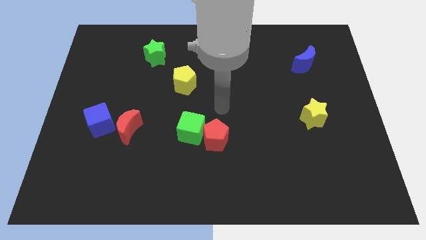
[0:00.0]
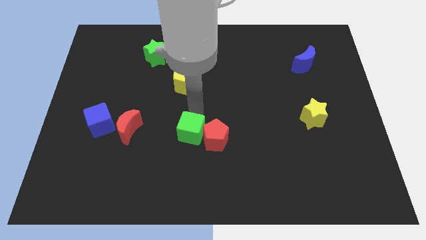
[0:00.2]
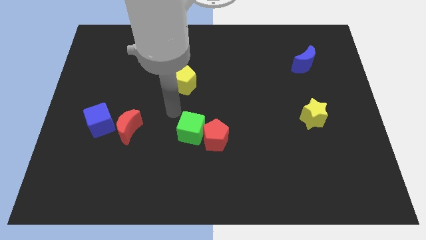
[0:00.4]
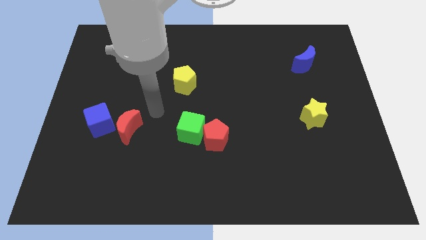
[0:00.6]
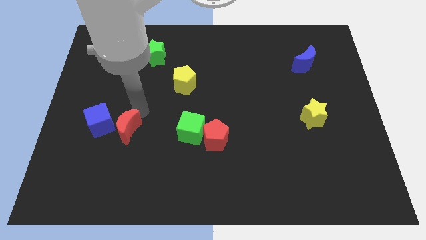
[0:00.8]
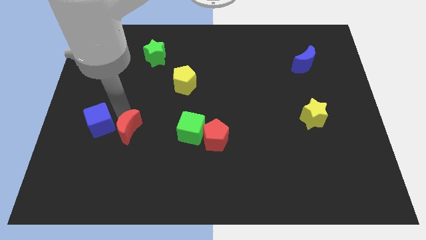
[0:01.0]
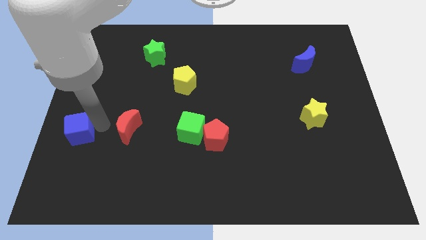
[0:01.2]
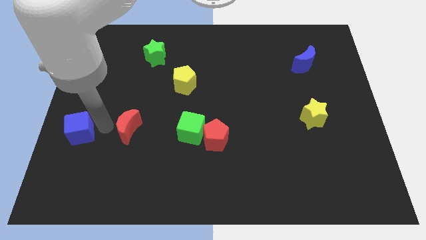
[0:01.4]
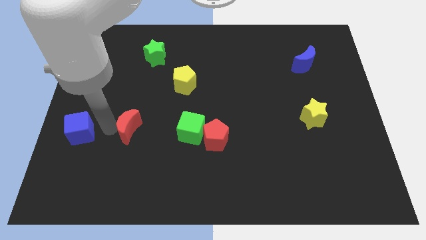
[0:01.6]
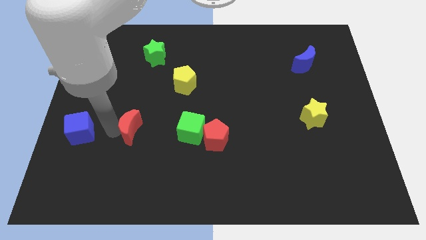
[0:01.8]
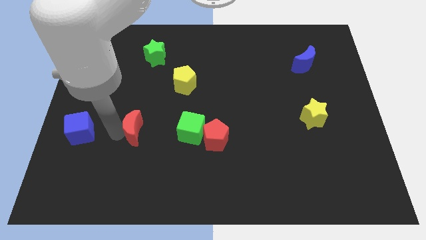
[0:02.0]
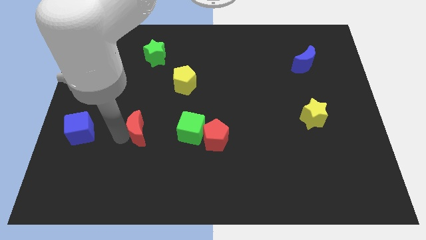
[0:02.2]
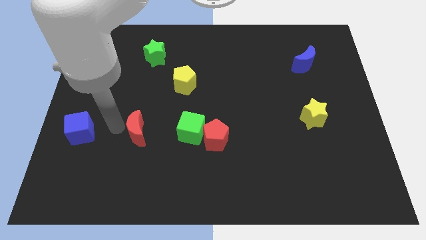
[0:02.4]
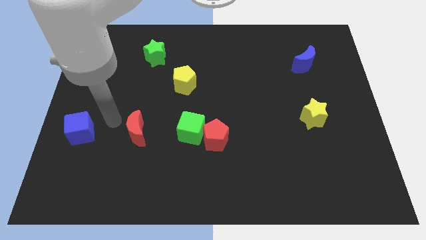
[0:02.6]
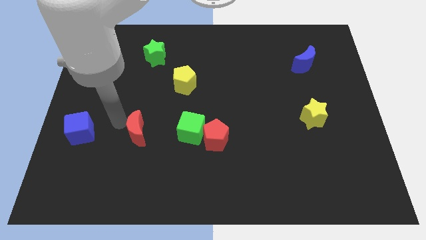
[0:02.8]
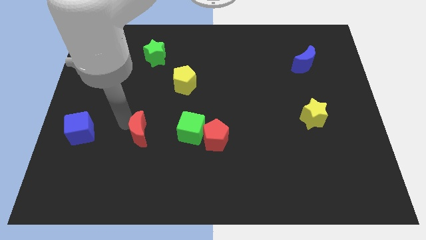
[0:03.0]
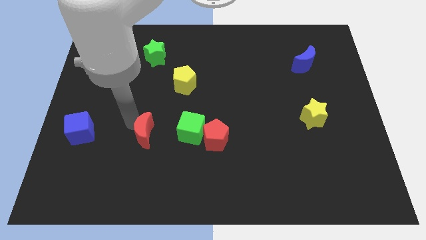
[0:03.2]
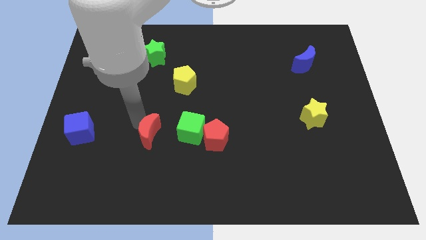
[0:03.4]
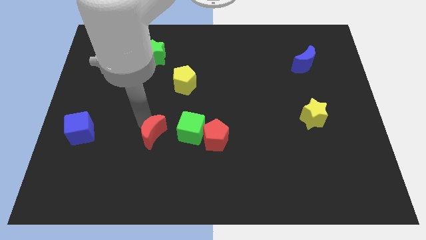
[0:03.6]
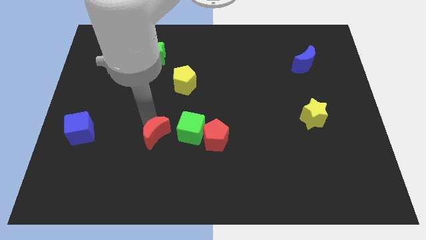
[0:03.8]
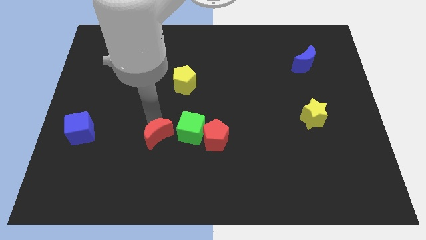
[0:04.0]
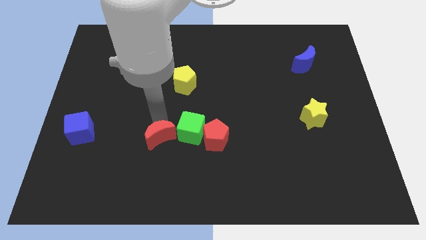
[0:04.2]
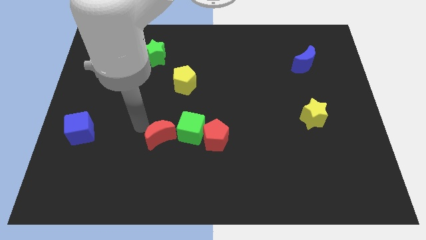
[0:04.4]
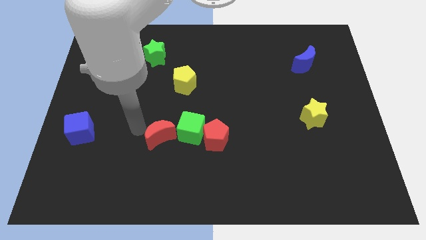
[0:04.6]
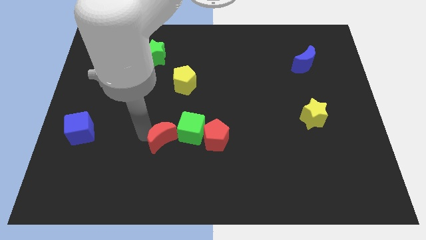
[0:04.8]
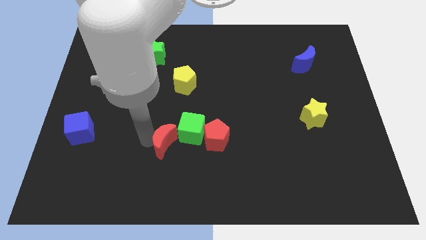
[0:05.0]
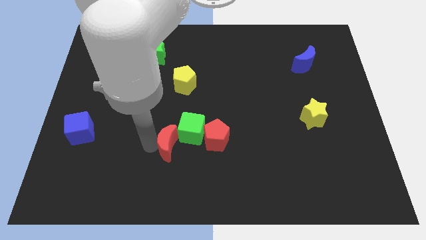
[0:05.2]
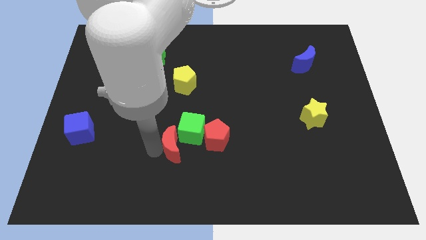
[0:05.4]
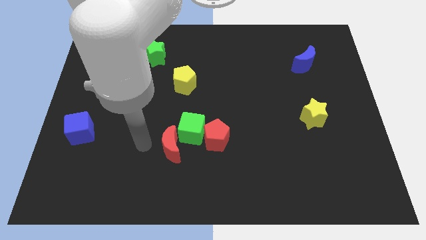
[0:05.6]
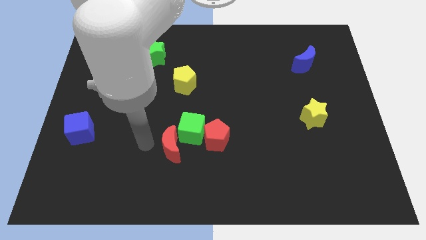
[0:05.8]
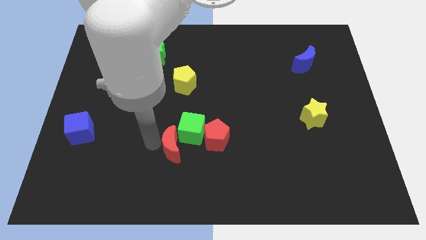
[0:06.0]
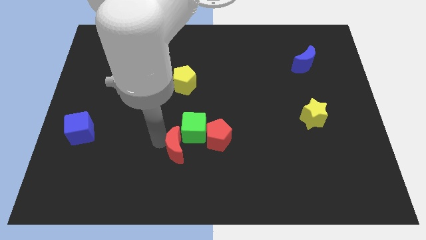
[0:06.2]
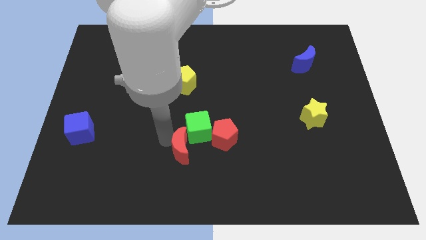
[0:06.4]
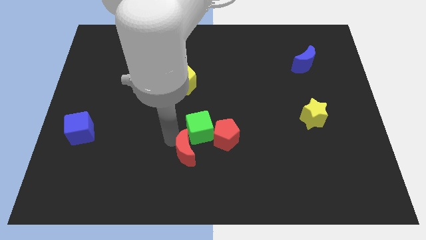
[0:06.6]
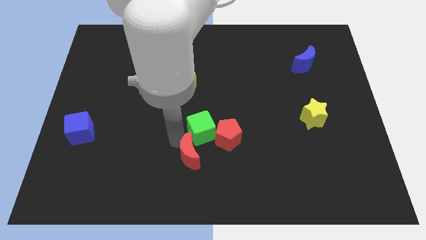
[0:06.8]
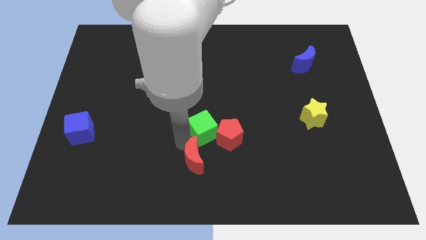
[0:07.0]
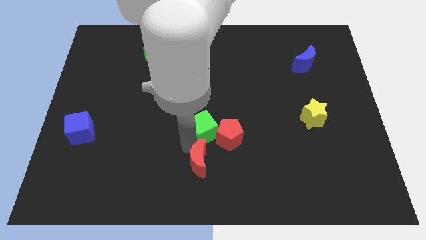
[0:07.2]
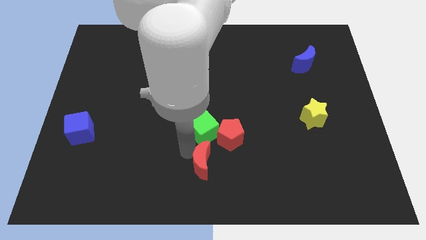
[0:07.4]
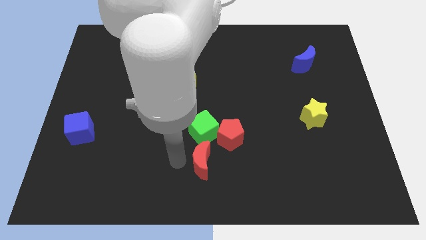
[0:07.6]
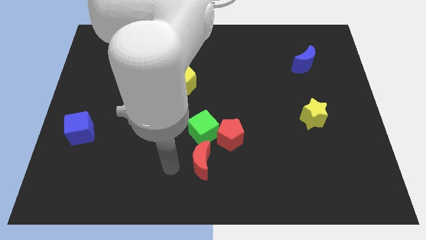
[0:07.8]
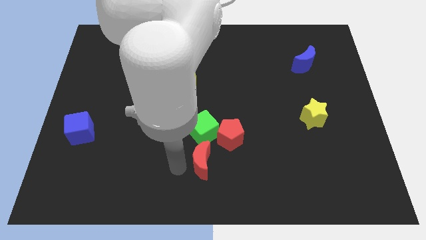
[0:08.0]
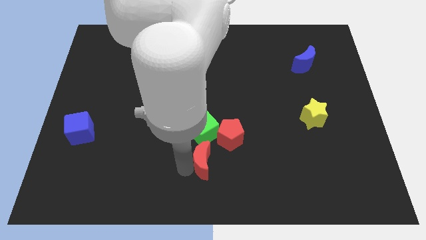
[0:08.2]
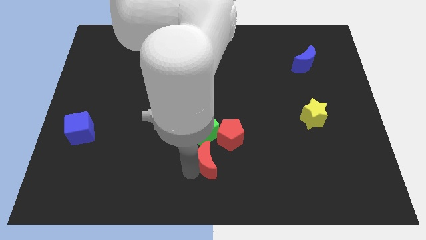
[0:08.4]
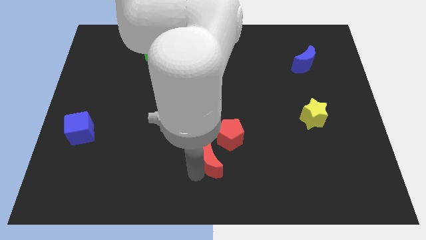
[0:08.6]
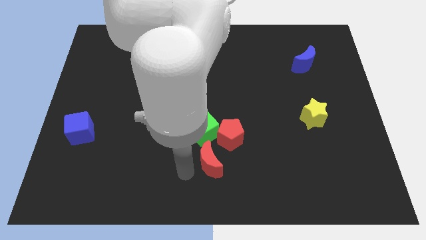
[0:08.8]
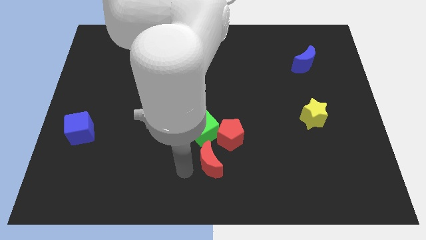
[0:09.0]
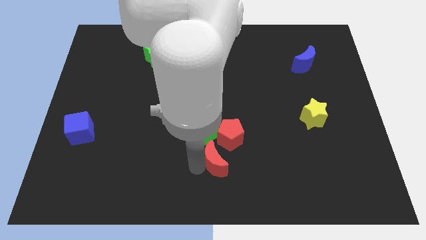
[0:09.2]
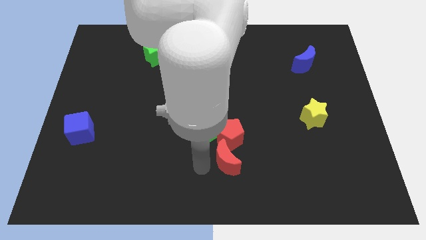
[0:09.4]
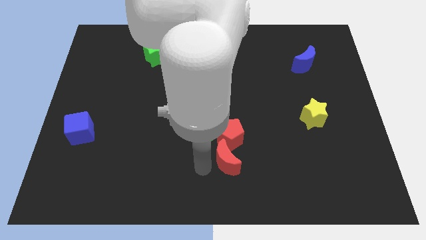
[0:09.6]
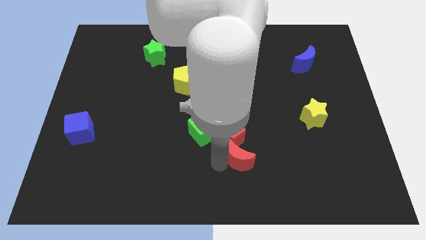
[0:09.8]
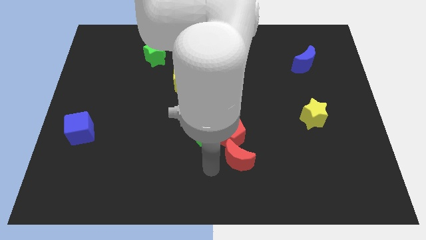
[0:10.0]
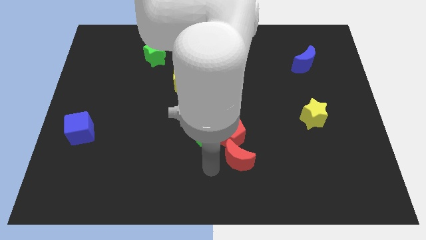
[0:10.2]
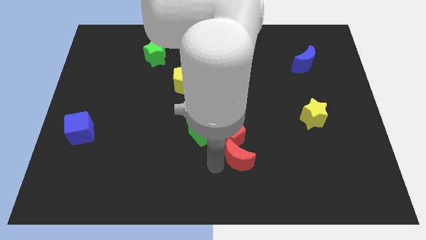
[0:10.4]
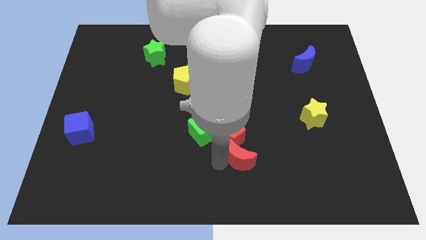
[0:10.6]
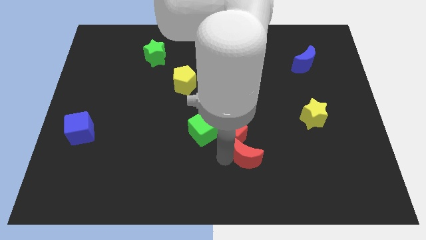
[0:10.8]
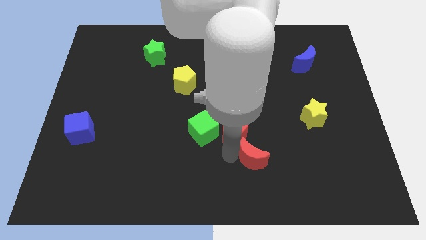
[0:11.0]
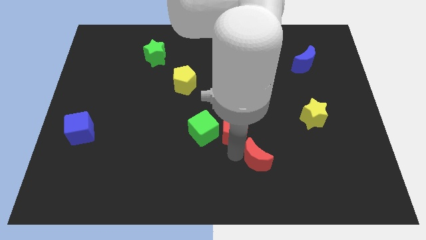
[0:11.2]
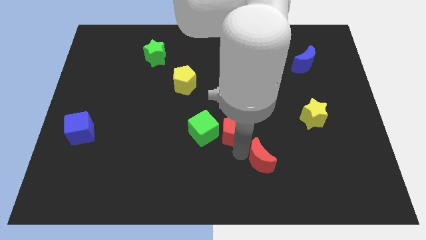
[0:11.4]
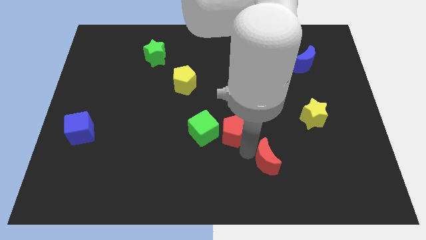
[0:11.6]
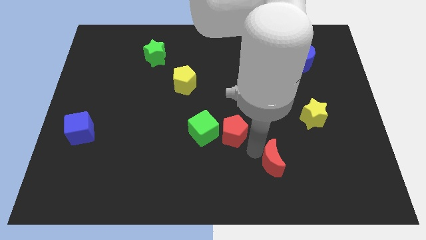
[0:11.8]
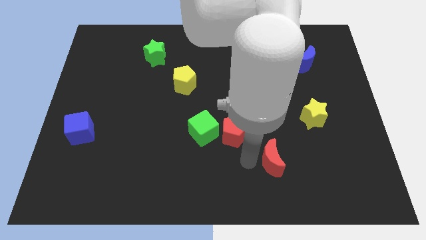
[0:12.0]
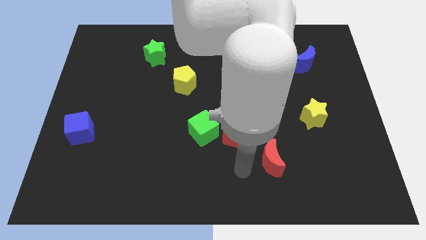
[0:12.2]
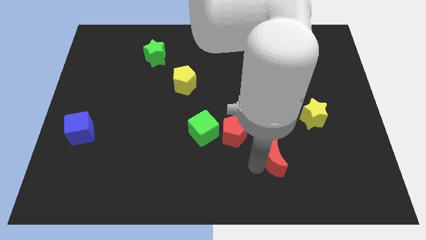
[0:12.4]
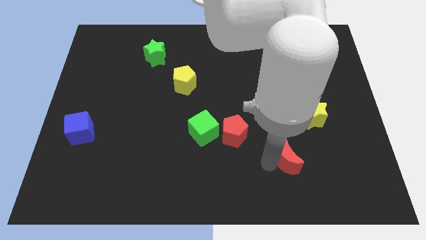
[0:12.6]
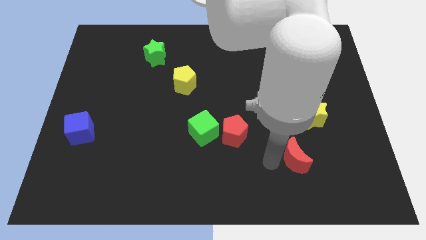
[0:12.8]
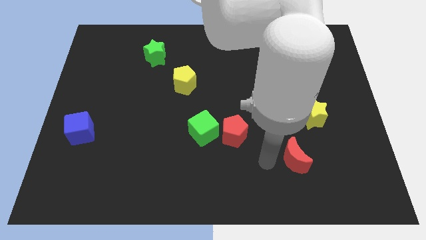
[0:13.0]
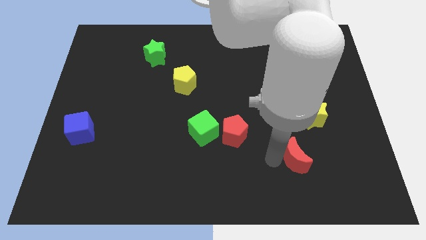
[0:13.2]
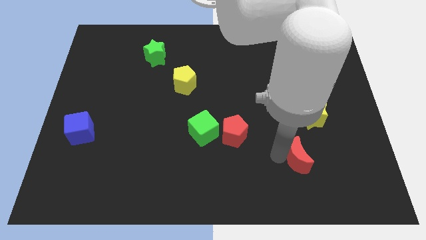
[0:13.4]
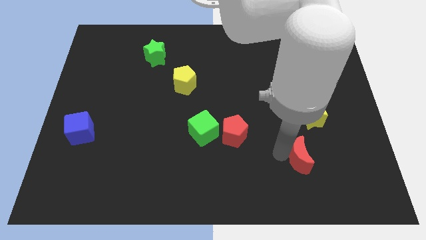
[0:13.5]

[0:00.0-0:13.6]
move the red moon below the yellow star
